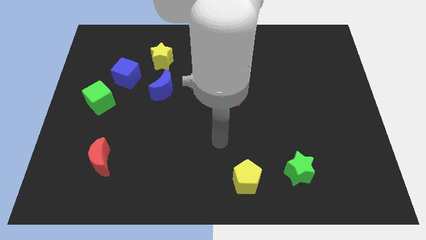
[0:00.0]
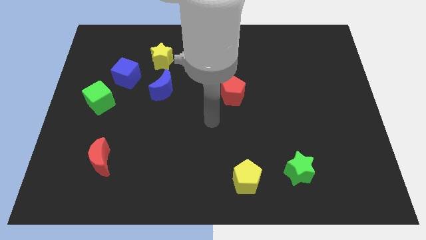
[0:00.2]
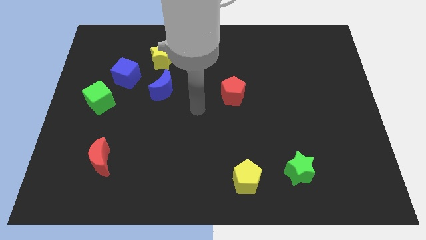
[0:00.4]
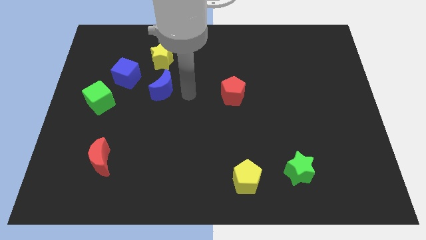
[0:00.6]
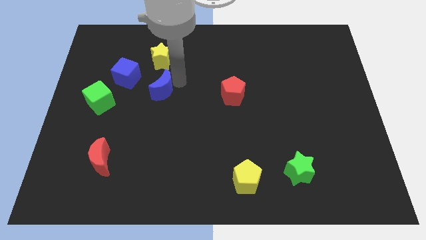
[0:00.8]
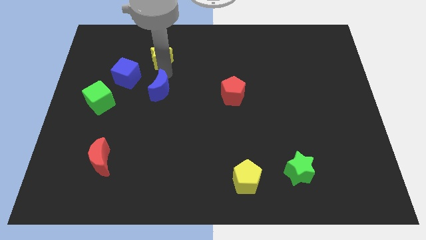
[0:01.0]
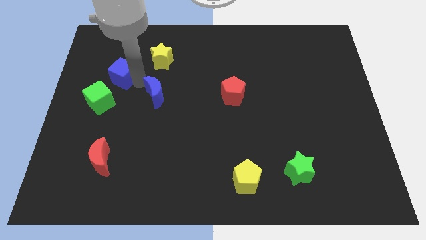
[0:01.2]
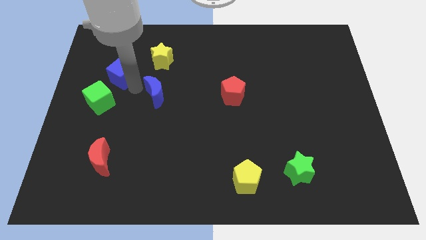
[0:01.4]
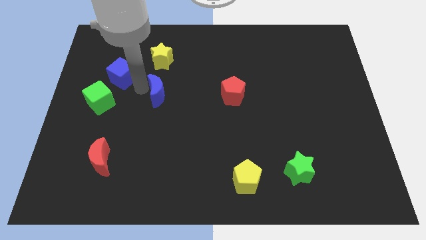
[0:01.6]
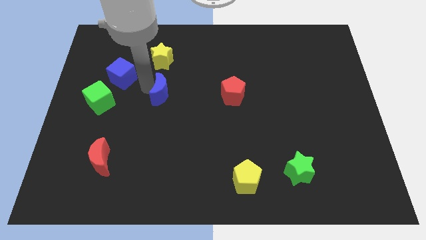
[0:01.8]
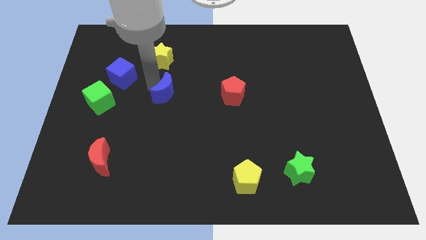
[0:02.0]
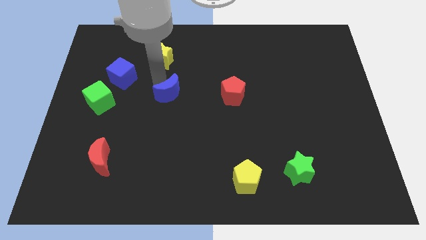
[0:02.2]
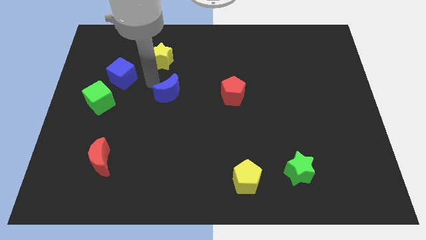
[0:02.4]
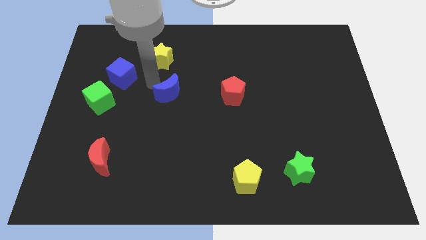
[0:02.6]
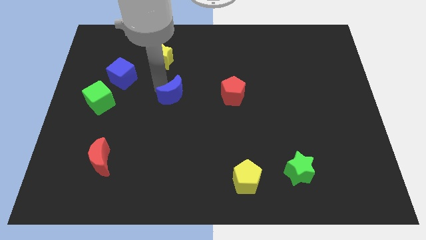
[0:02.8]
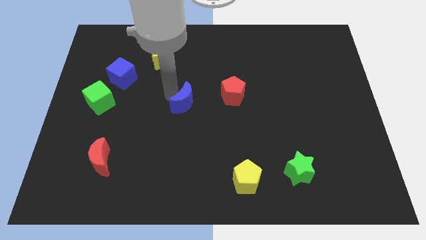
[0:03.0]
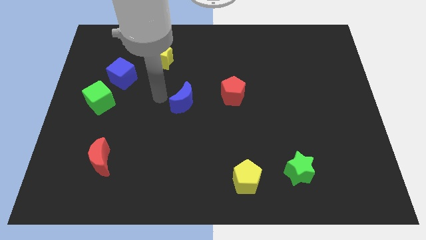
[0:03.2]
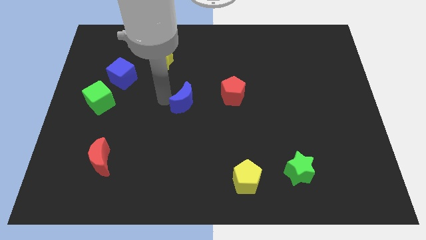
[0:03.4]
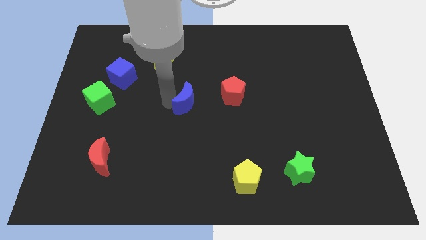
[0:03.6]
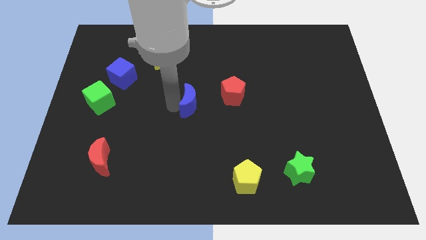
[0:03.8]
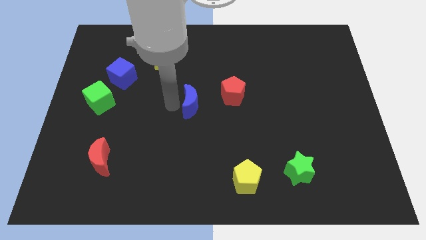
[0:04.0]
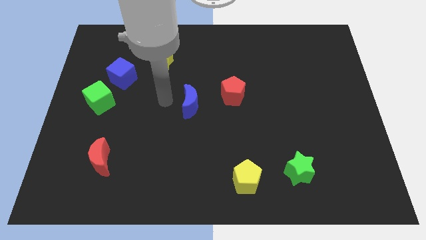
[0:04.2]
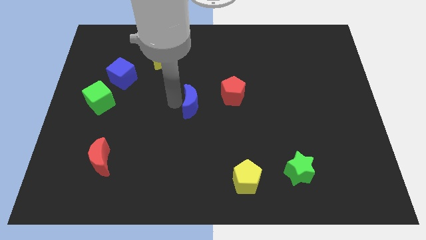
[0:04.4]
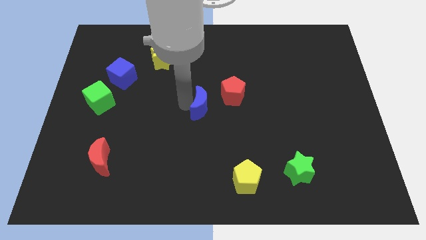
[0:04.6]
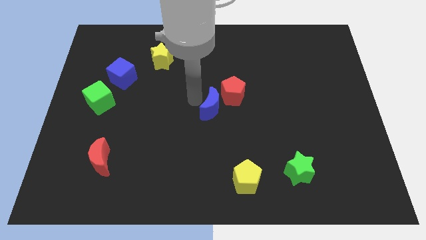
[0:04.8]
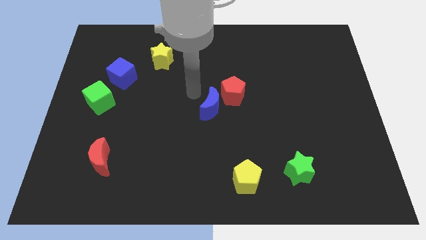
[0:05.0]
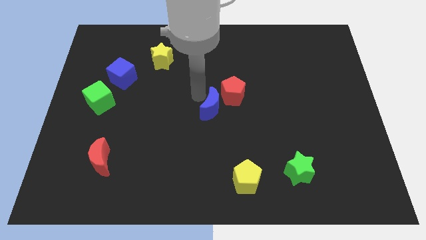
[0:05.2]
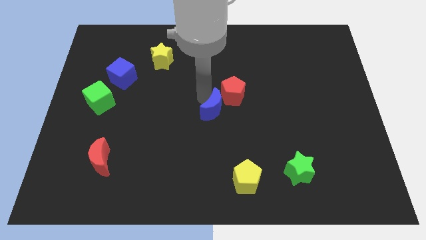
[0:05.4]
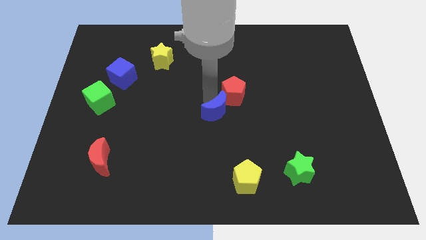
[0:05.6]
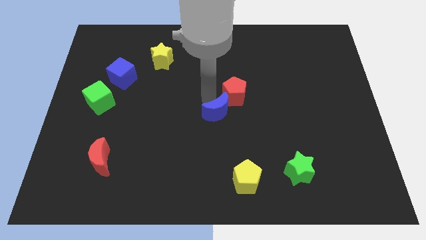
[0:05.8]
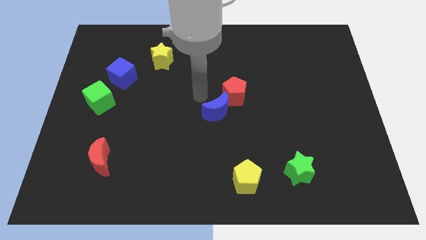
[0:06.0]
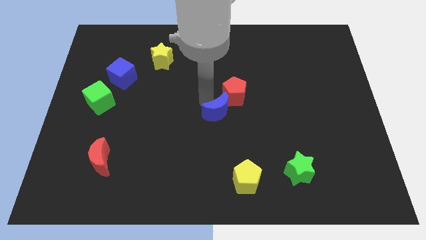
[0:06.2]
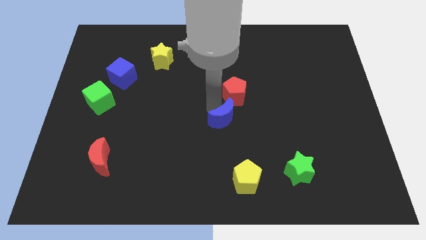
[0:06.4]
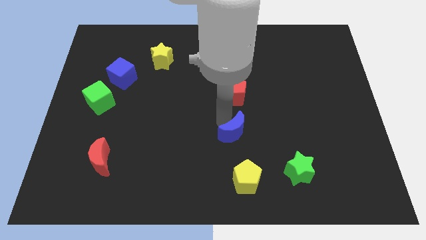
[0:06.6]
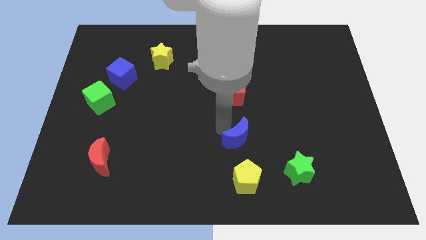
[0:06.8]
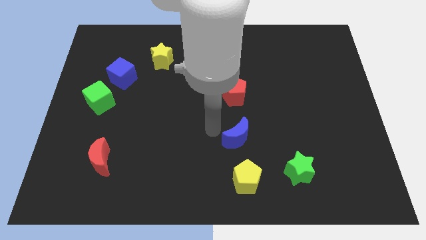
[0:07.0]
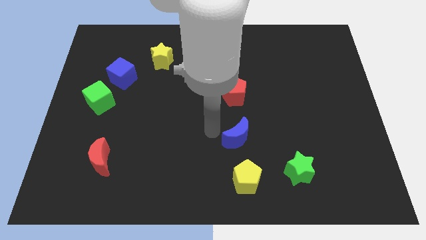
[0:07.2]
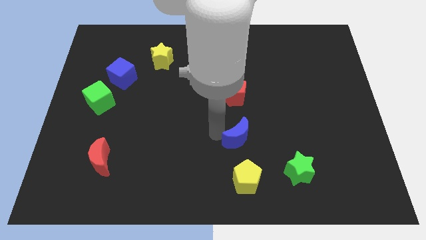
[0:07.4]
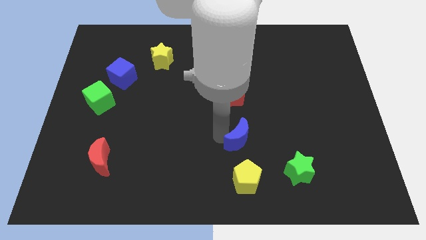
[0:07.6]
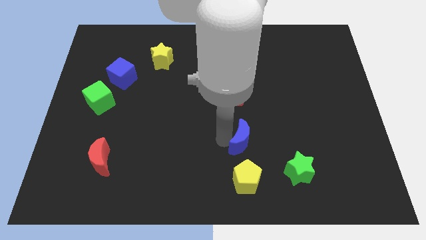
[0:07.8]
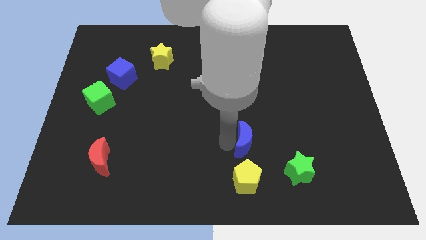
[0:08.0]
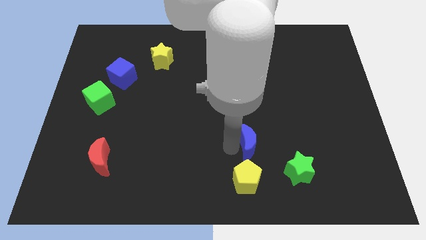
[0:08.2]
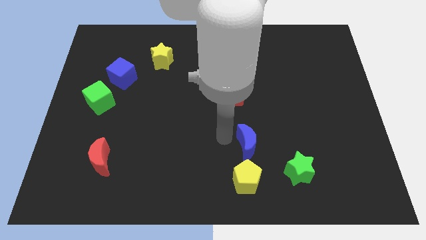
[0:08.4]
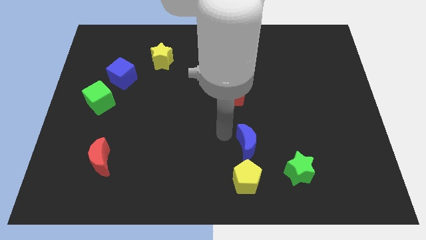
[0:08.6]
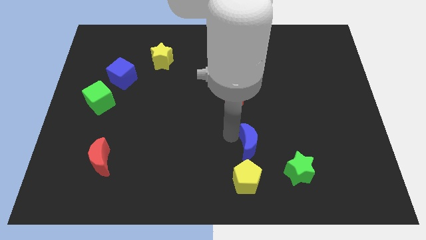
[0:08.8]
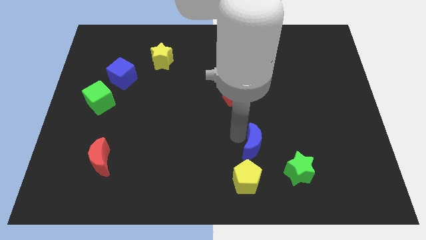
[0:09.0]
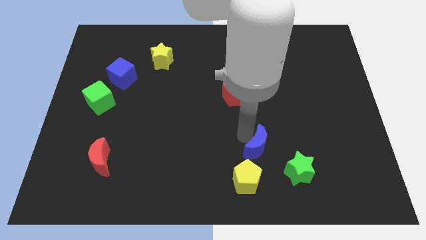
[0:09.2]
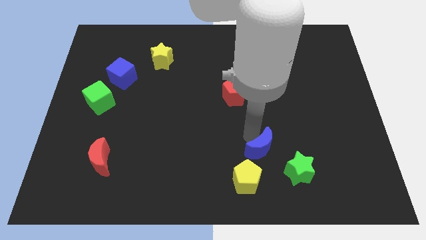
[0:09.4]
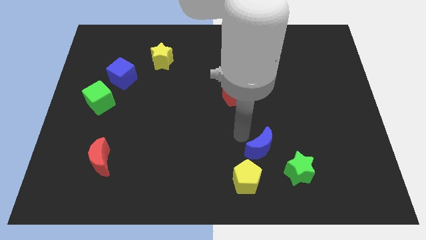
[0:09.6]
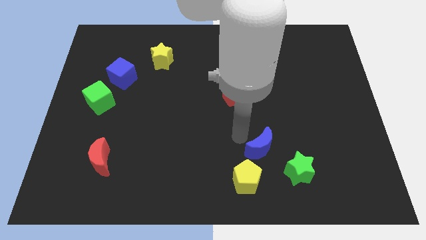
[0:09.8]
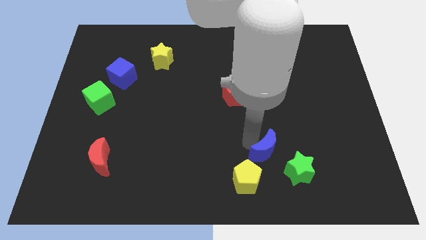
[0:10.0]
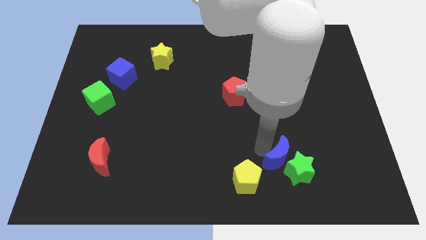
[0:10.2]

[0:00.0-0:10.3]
slide the blue moon to the green star

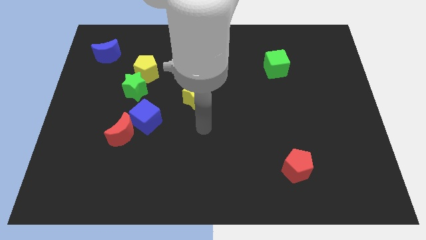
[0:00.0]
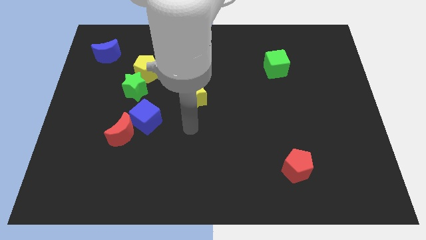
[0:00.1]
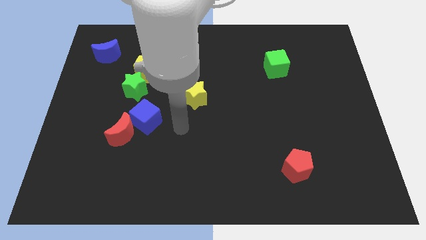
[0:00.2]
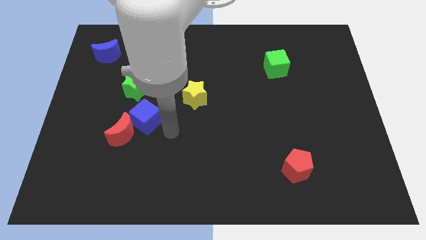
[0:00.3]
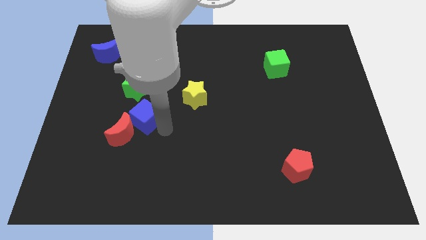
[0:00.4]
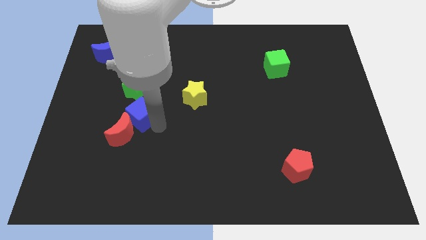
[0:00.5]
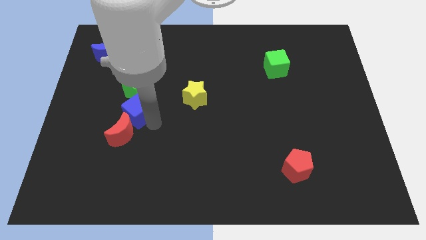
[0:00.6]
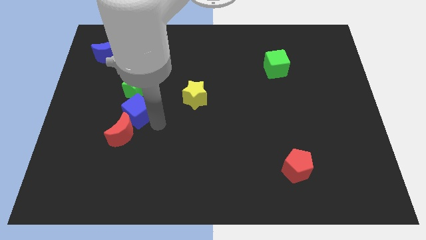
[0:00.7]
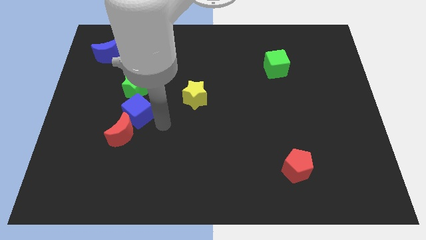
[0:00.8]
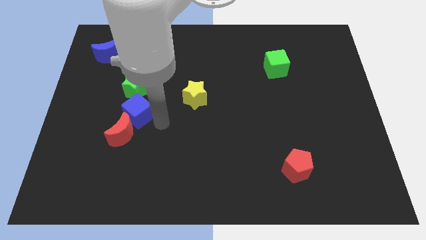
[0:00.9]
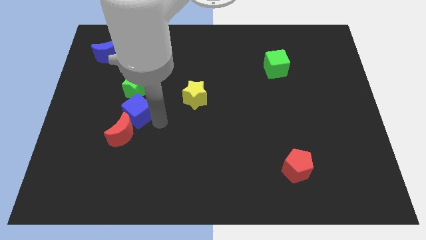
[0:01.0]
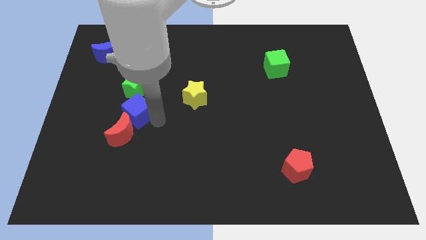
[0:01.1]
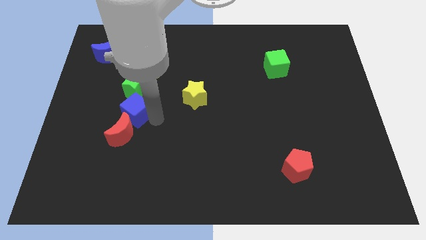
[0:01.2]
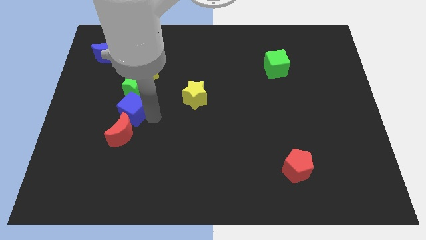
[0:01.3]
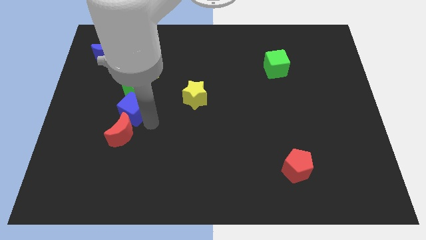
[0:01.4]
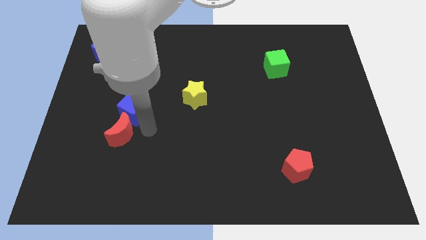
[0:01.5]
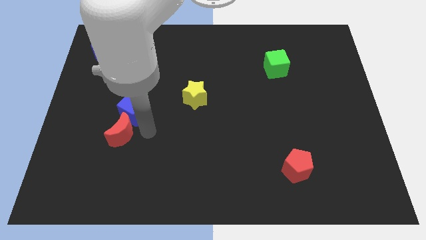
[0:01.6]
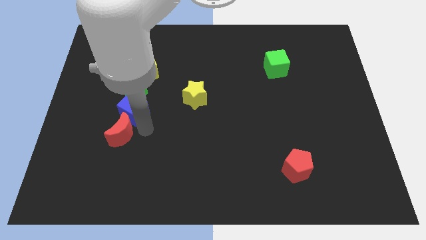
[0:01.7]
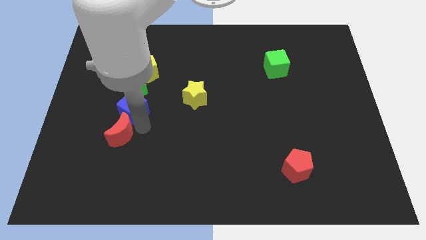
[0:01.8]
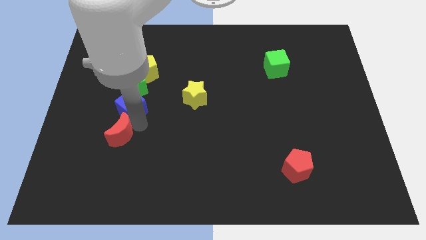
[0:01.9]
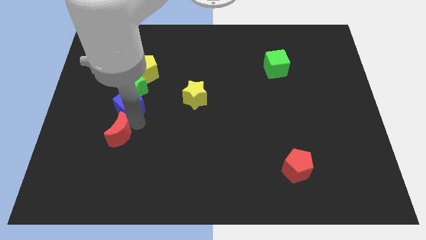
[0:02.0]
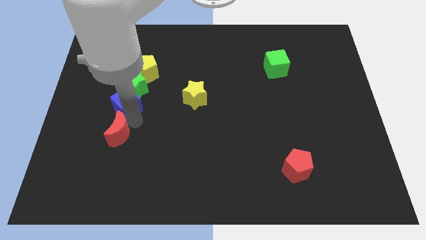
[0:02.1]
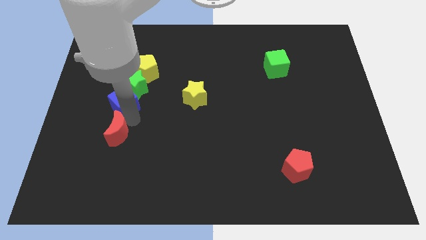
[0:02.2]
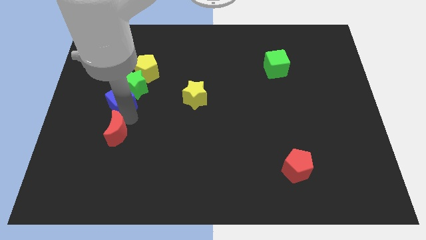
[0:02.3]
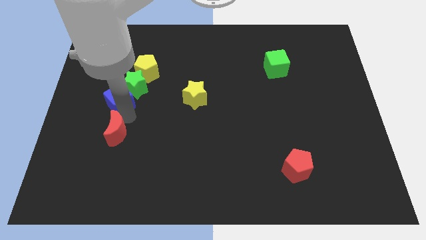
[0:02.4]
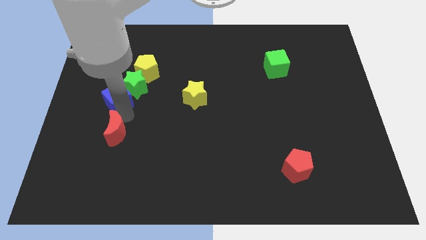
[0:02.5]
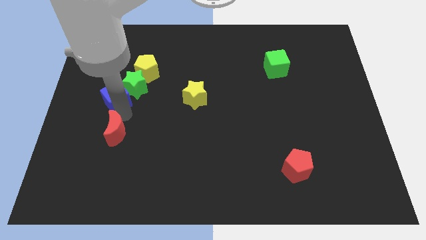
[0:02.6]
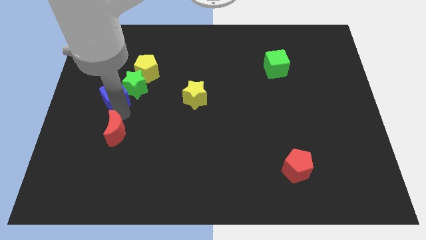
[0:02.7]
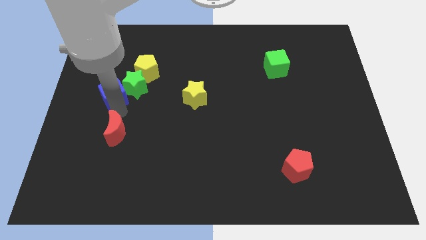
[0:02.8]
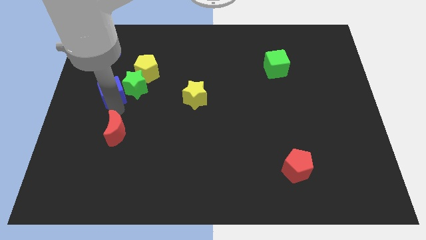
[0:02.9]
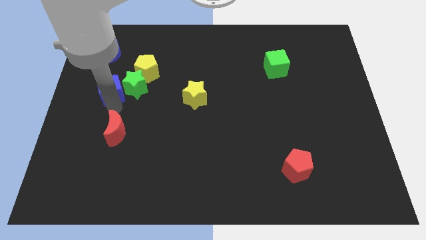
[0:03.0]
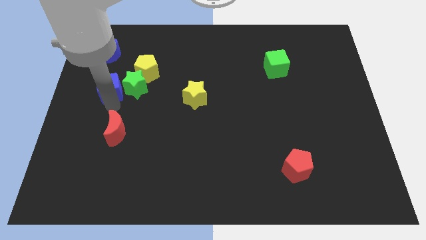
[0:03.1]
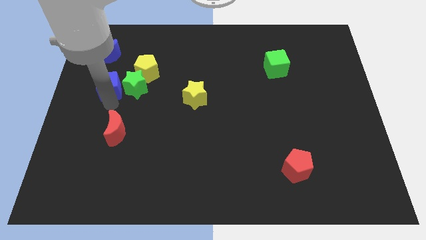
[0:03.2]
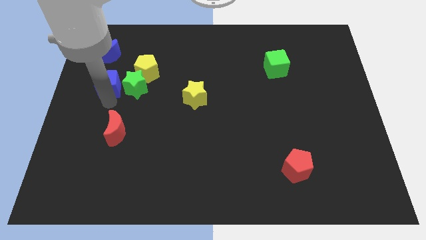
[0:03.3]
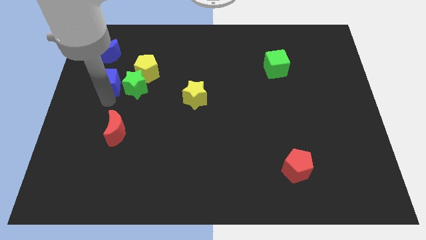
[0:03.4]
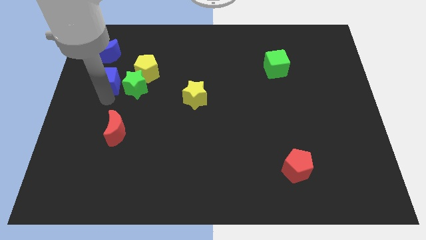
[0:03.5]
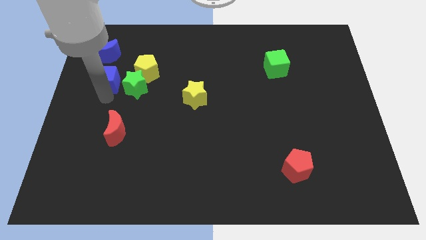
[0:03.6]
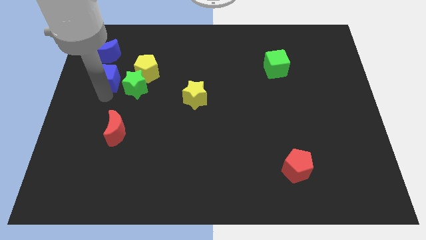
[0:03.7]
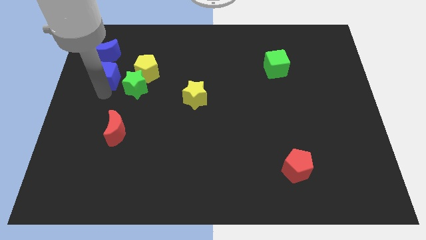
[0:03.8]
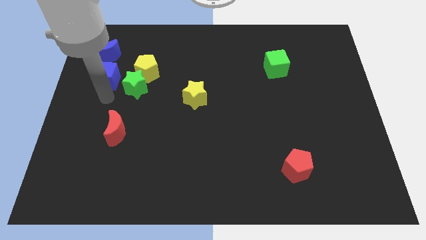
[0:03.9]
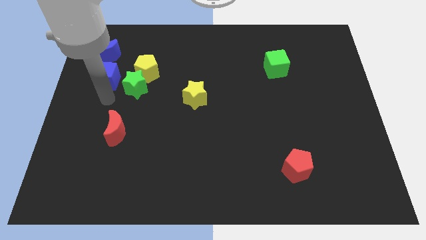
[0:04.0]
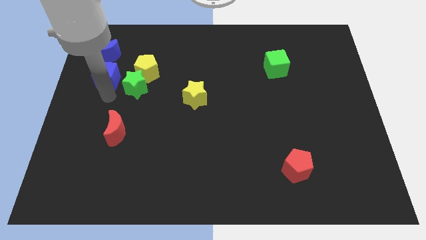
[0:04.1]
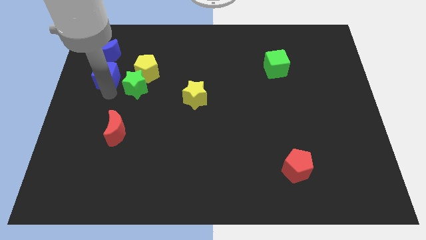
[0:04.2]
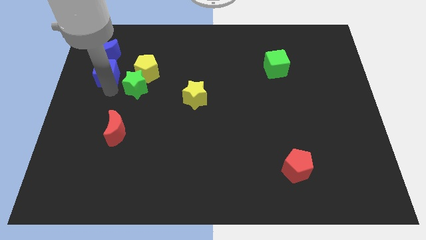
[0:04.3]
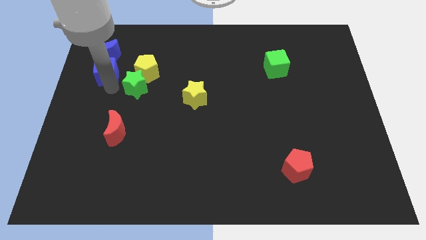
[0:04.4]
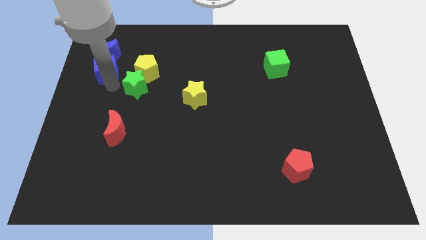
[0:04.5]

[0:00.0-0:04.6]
slide the blue cube to the blue moon
